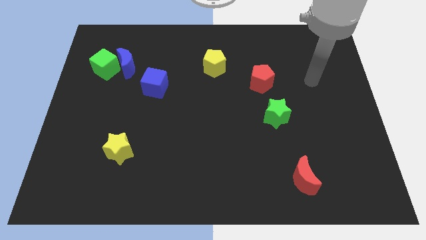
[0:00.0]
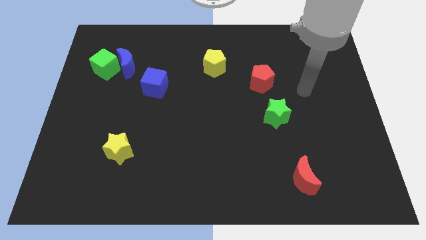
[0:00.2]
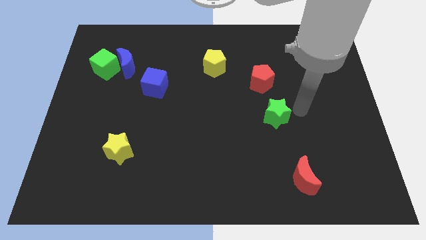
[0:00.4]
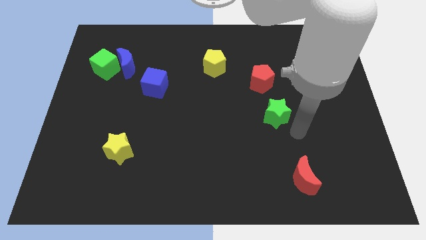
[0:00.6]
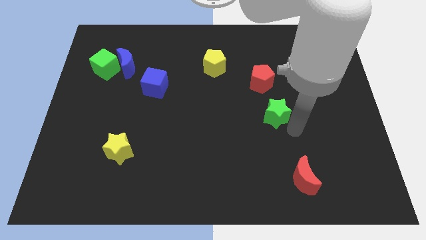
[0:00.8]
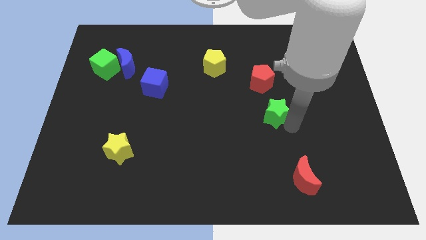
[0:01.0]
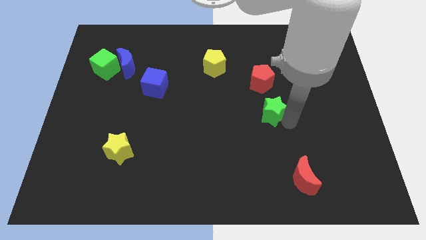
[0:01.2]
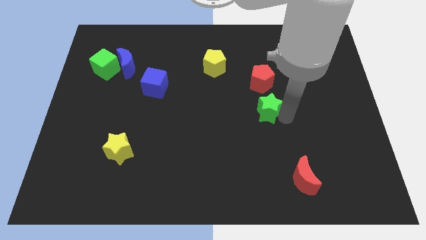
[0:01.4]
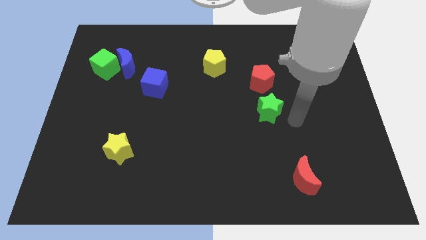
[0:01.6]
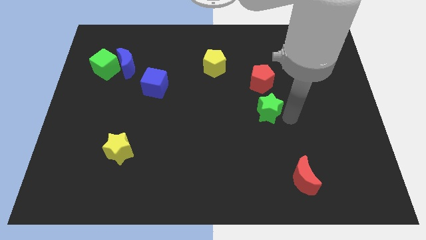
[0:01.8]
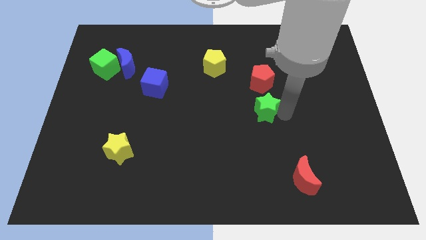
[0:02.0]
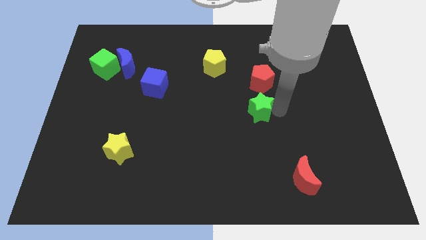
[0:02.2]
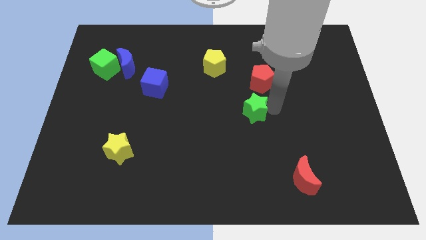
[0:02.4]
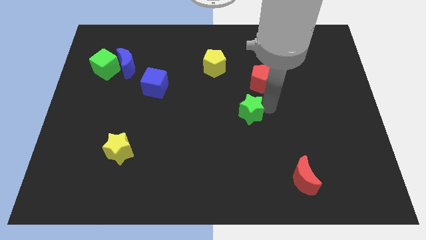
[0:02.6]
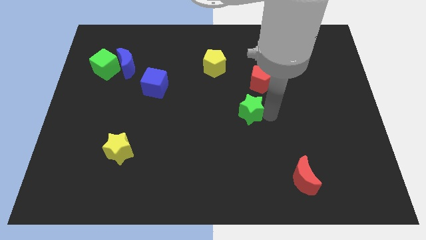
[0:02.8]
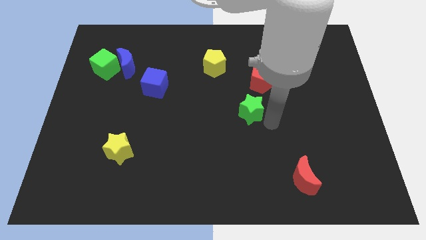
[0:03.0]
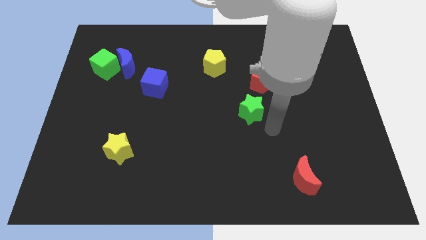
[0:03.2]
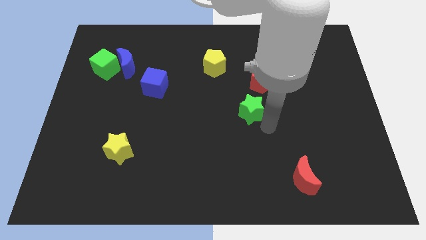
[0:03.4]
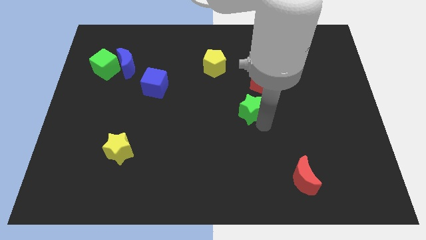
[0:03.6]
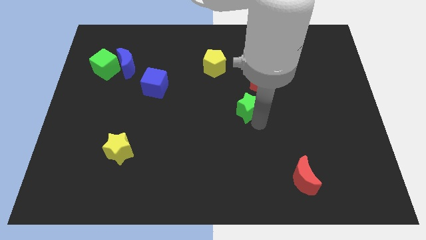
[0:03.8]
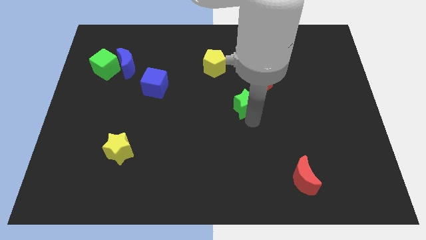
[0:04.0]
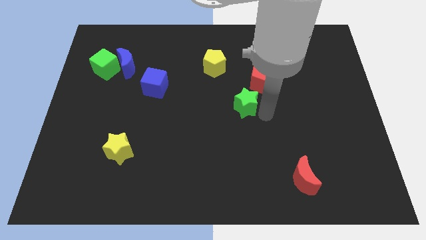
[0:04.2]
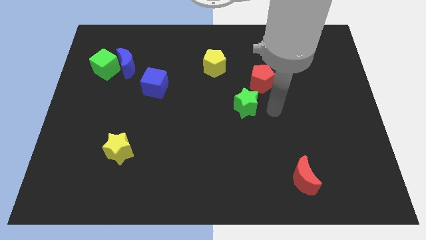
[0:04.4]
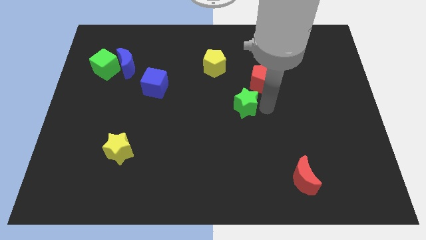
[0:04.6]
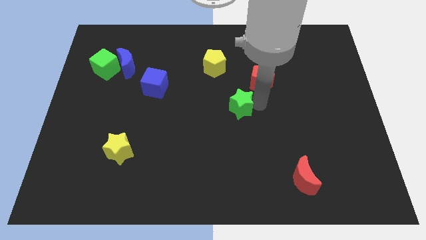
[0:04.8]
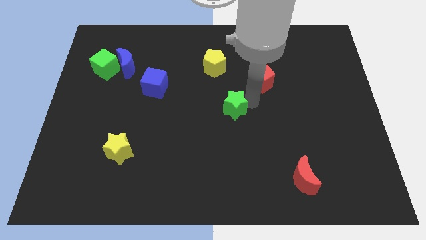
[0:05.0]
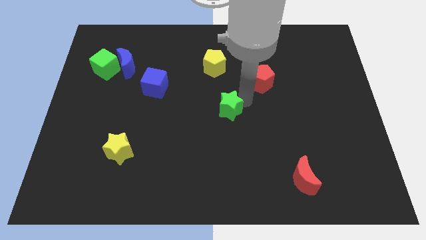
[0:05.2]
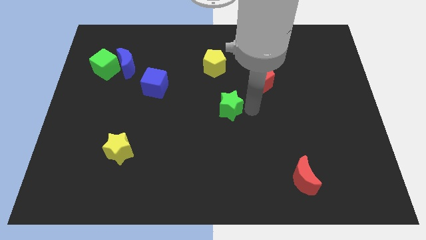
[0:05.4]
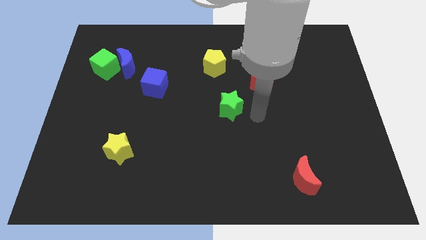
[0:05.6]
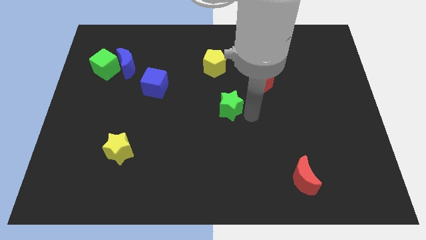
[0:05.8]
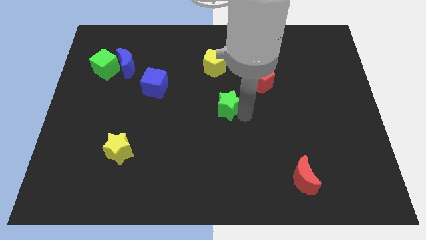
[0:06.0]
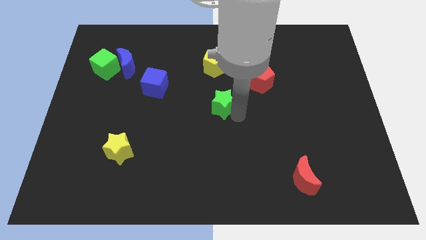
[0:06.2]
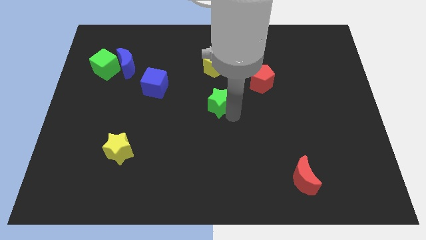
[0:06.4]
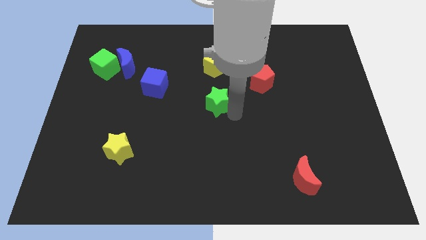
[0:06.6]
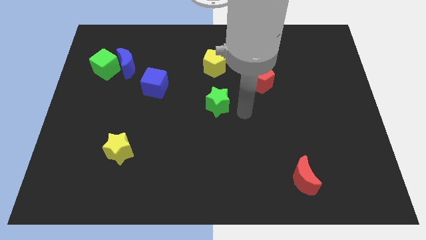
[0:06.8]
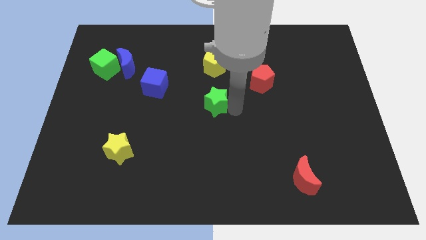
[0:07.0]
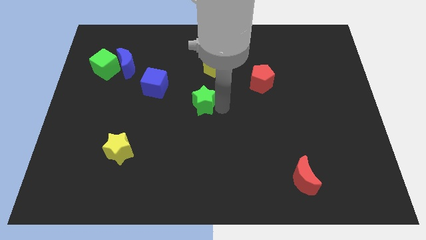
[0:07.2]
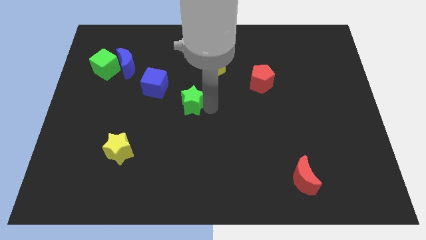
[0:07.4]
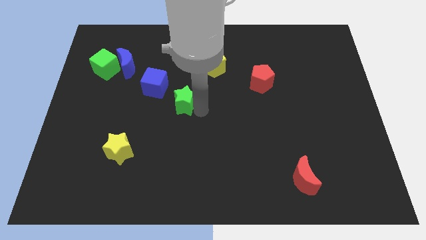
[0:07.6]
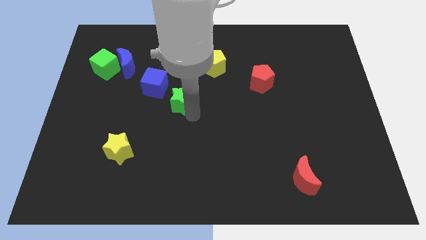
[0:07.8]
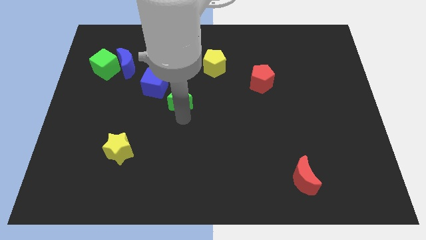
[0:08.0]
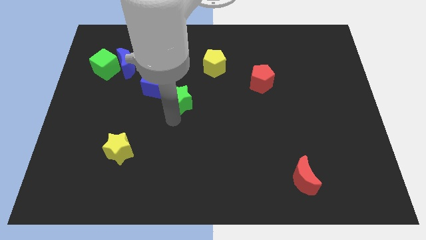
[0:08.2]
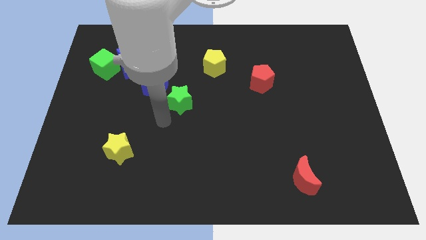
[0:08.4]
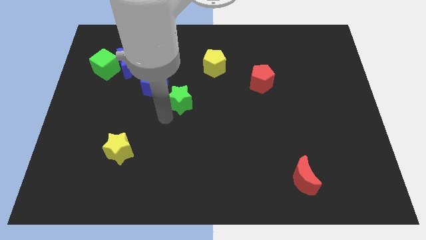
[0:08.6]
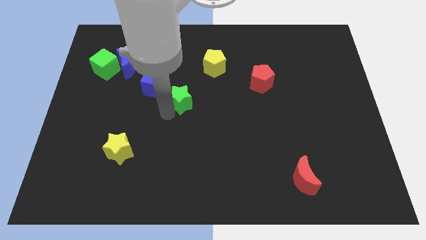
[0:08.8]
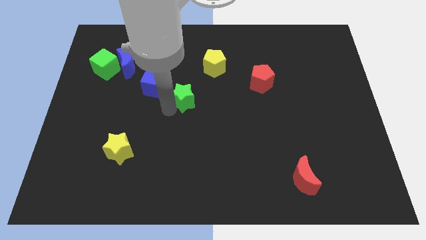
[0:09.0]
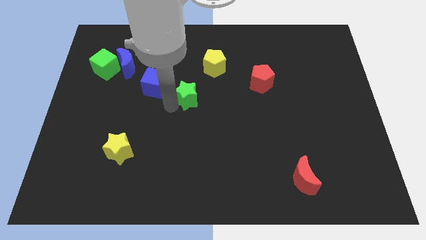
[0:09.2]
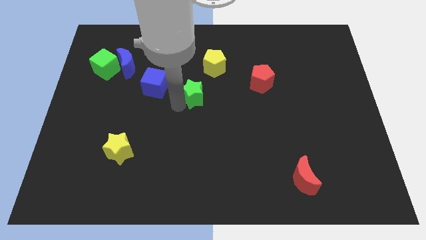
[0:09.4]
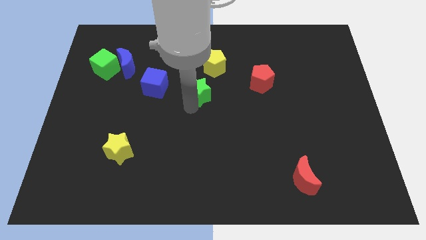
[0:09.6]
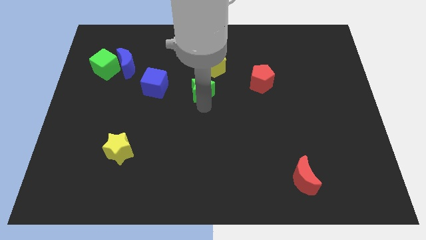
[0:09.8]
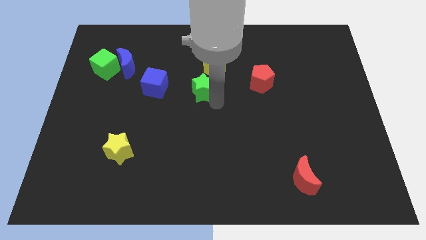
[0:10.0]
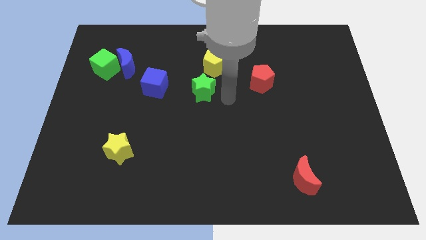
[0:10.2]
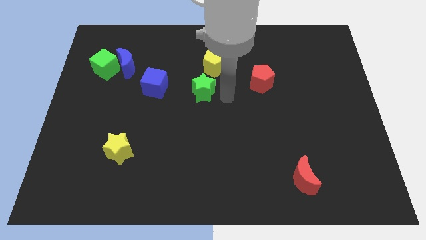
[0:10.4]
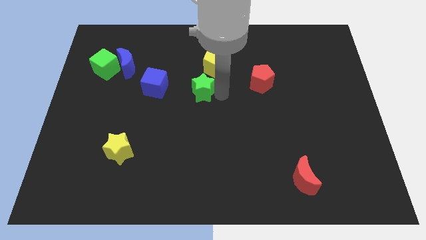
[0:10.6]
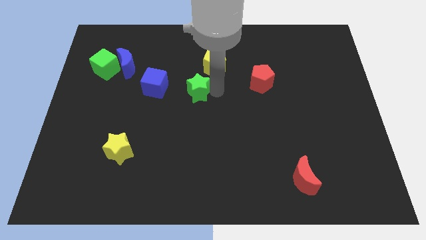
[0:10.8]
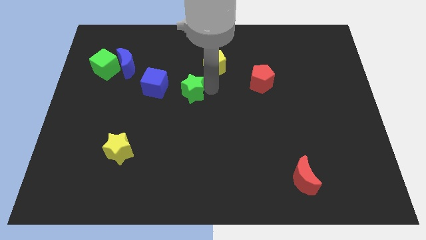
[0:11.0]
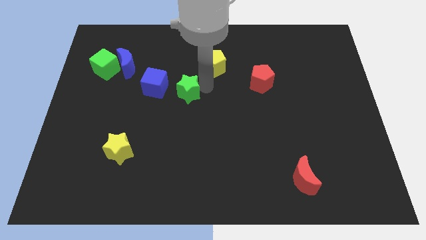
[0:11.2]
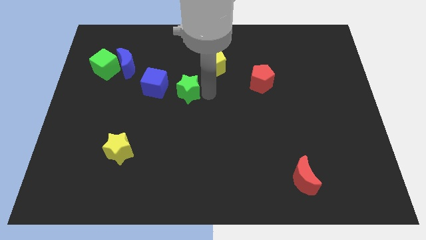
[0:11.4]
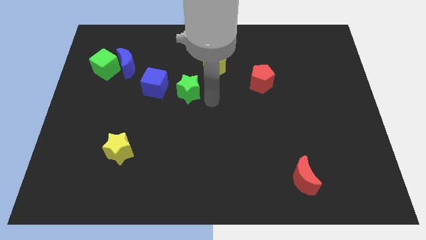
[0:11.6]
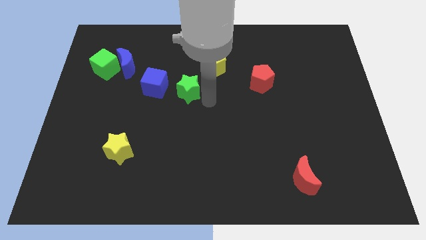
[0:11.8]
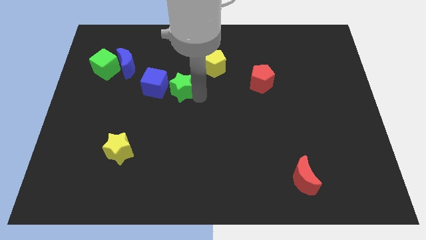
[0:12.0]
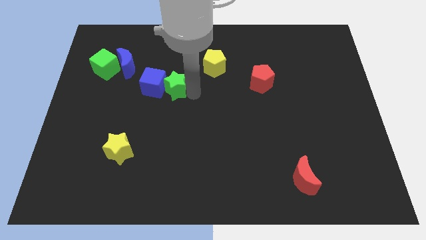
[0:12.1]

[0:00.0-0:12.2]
push the green star next to the blue cube

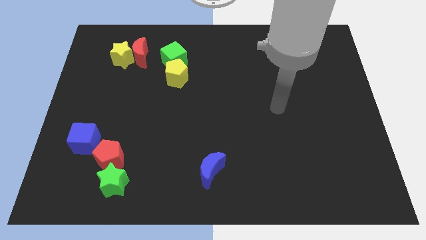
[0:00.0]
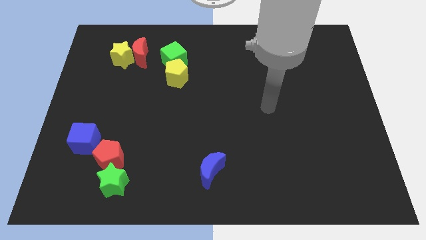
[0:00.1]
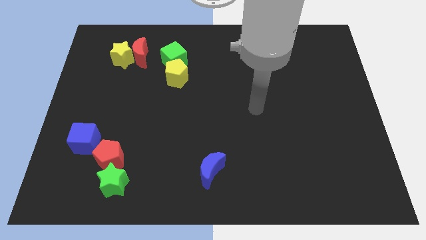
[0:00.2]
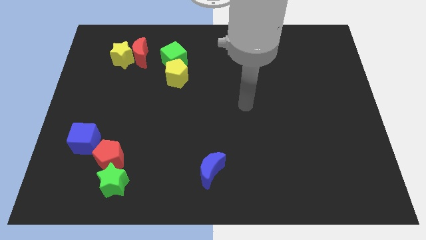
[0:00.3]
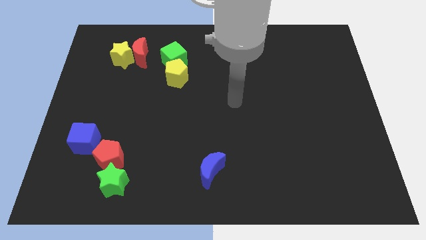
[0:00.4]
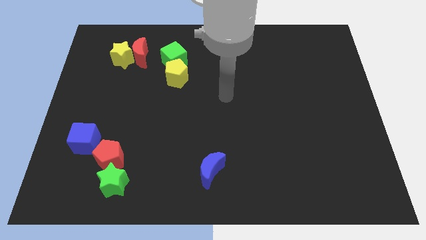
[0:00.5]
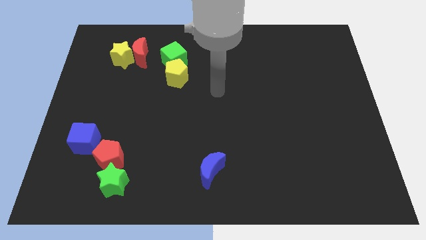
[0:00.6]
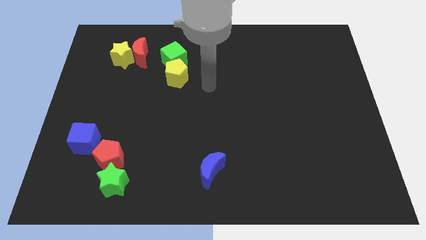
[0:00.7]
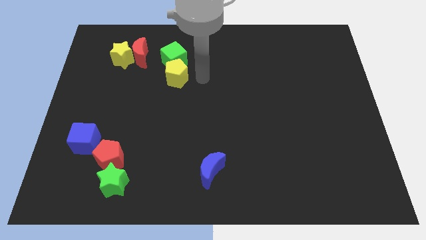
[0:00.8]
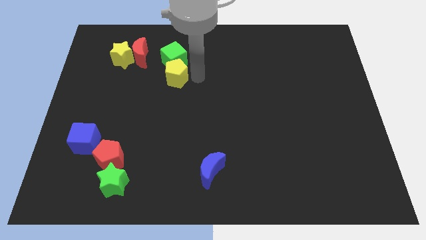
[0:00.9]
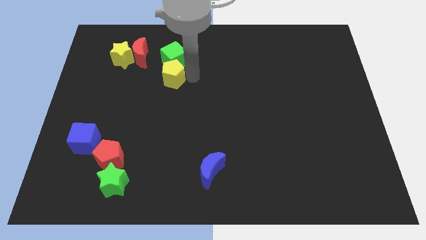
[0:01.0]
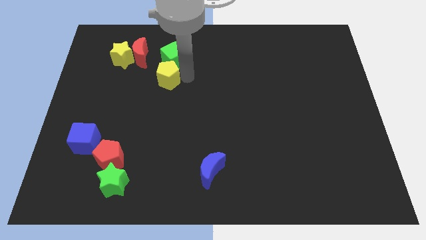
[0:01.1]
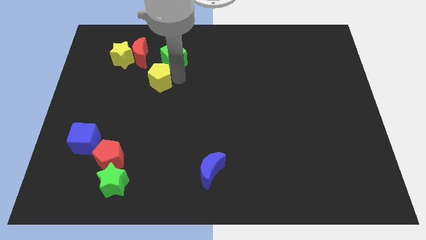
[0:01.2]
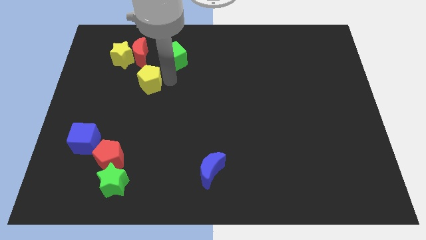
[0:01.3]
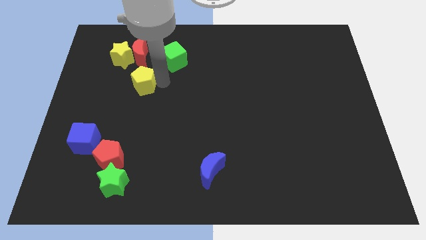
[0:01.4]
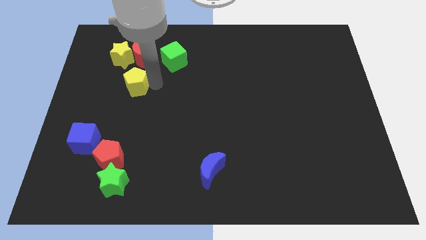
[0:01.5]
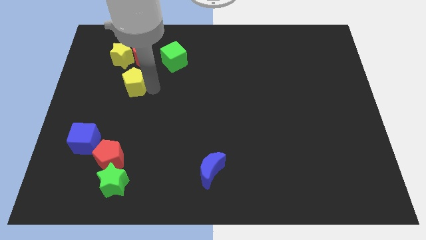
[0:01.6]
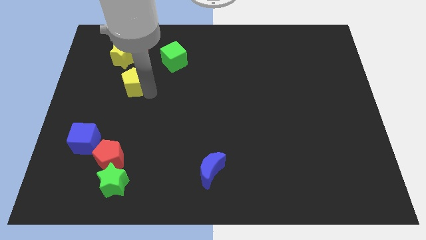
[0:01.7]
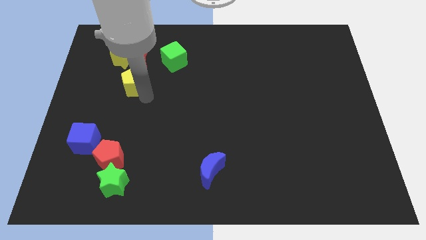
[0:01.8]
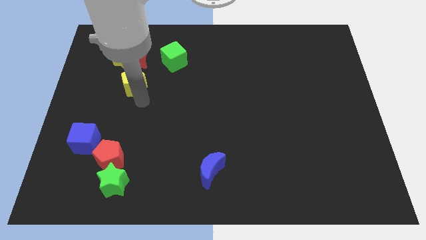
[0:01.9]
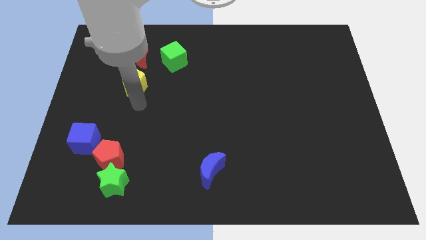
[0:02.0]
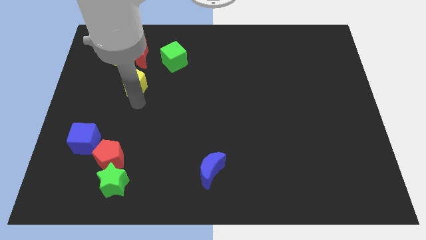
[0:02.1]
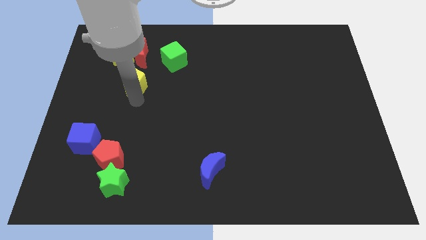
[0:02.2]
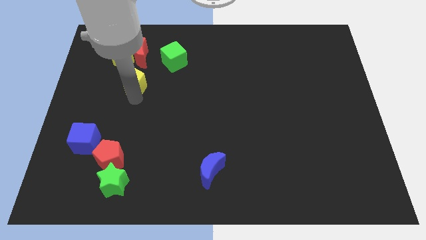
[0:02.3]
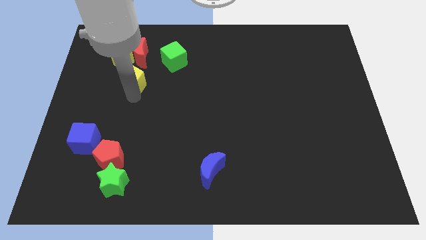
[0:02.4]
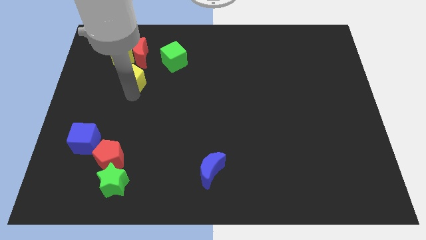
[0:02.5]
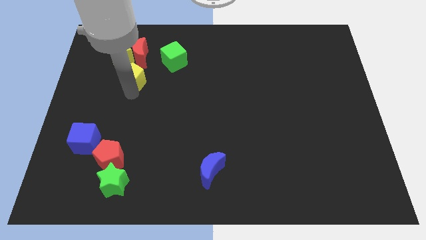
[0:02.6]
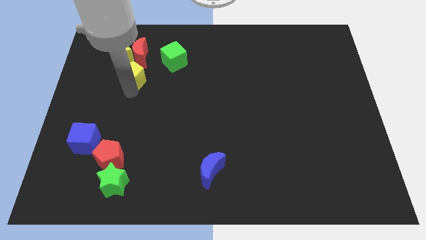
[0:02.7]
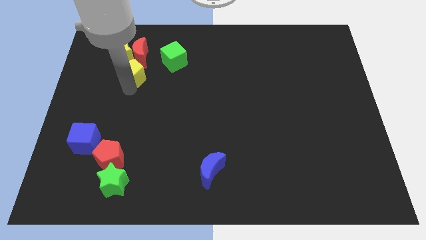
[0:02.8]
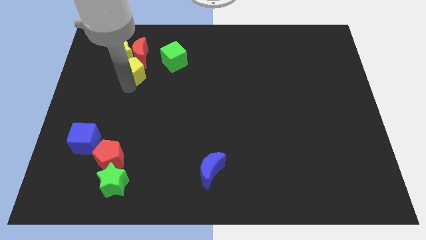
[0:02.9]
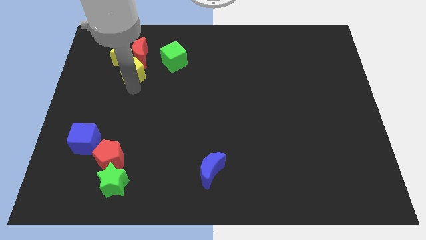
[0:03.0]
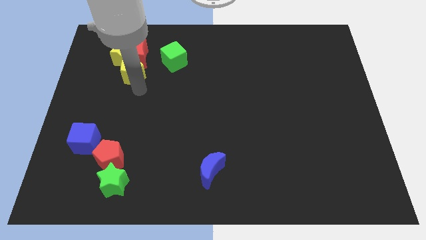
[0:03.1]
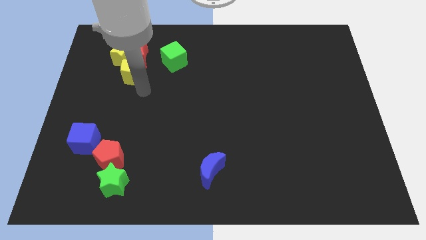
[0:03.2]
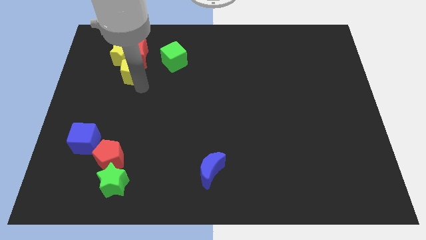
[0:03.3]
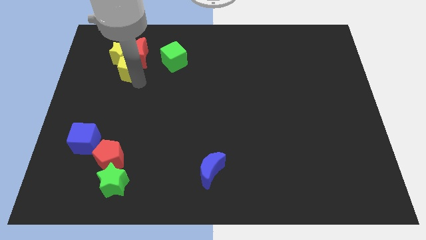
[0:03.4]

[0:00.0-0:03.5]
move the yellow pentagon towards the yellow star
